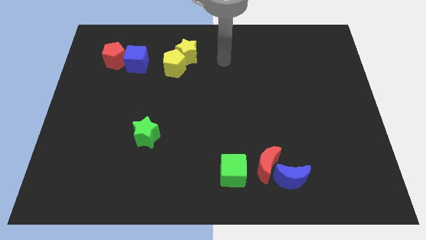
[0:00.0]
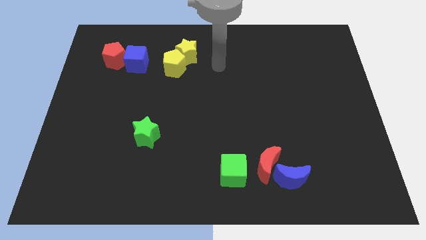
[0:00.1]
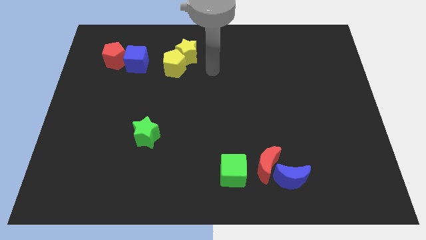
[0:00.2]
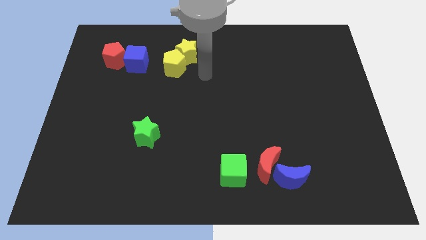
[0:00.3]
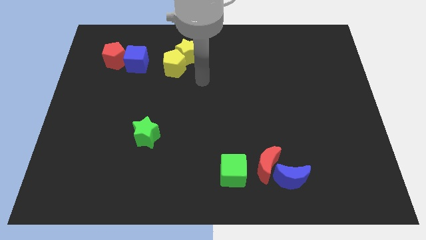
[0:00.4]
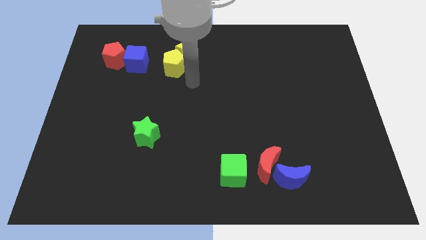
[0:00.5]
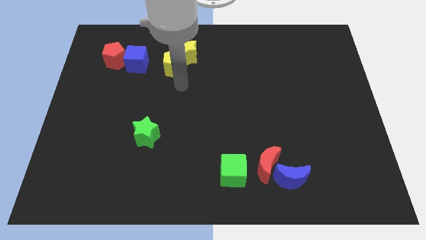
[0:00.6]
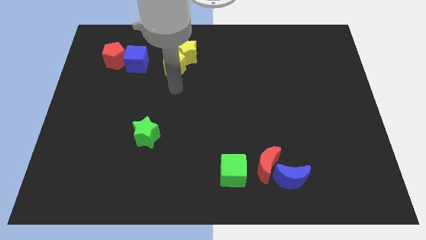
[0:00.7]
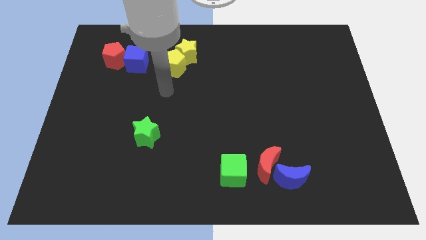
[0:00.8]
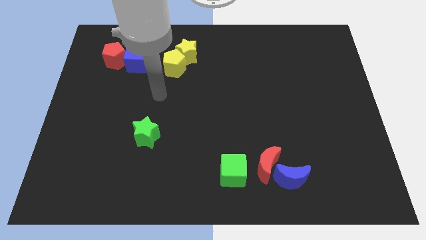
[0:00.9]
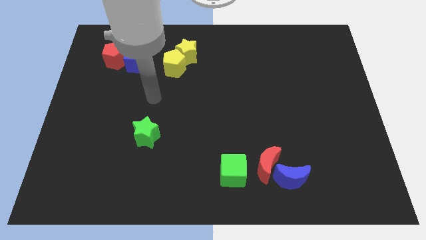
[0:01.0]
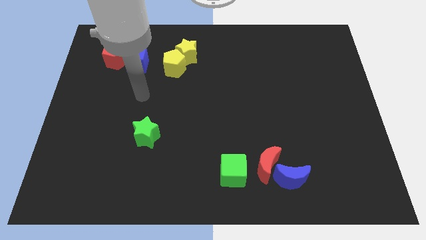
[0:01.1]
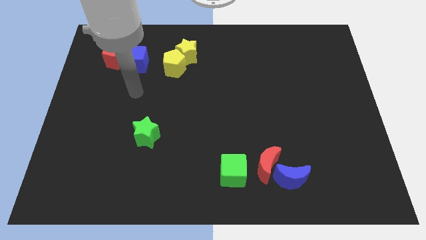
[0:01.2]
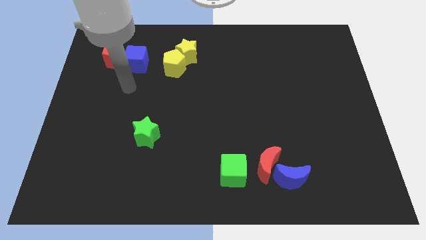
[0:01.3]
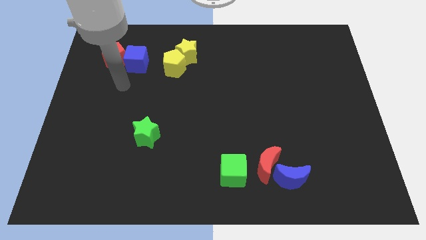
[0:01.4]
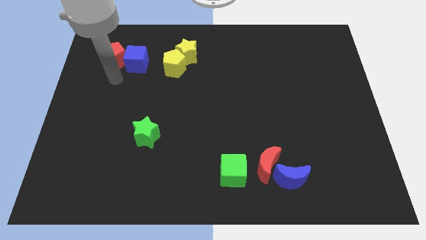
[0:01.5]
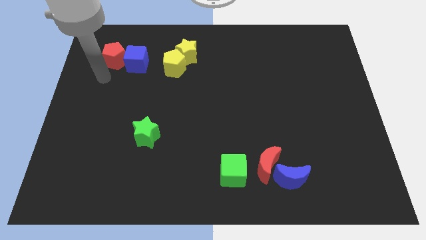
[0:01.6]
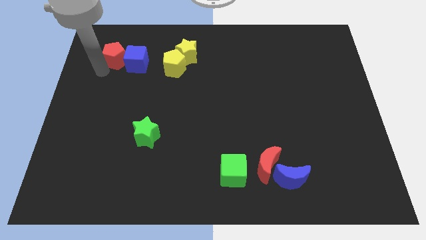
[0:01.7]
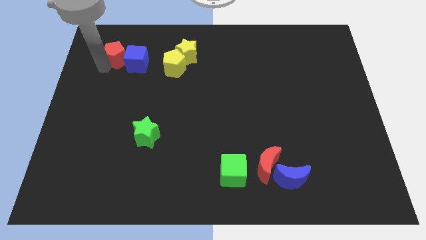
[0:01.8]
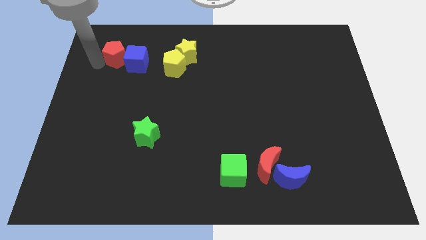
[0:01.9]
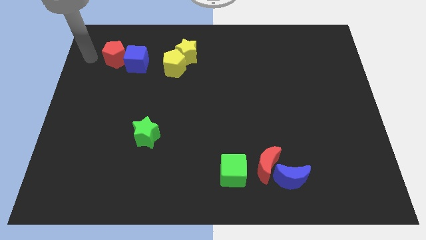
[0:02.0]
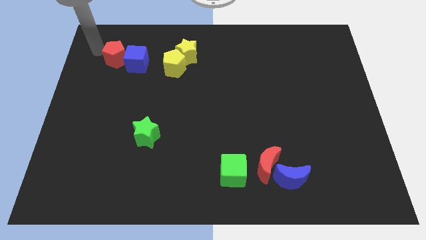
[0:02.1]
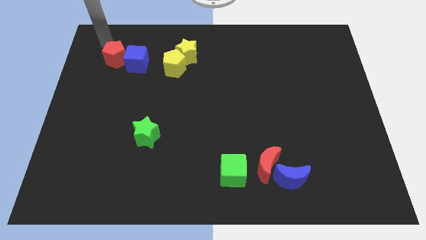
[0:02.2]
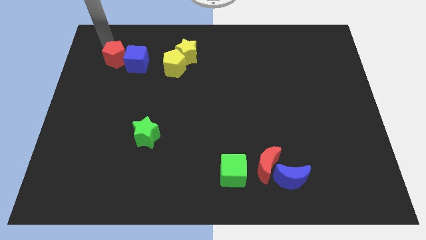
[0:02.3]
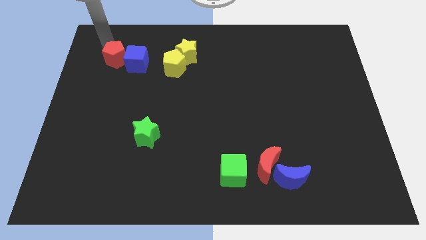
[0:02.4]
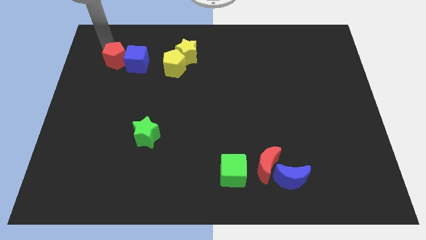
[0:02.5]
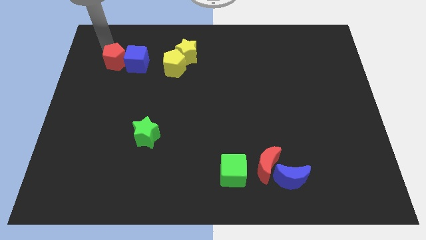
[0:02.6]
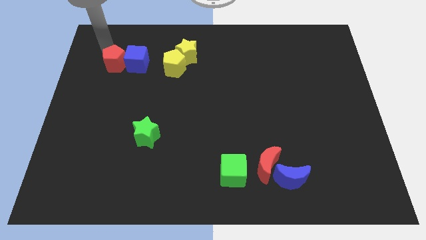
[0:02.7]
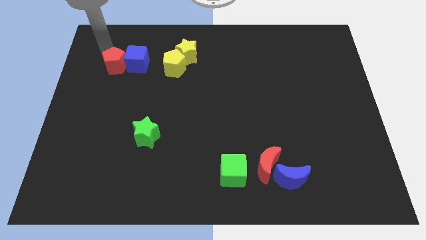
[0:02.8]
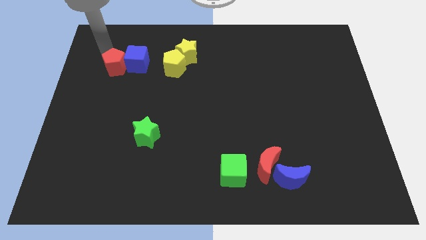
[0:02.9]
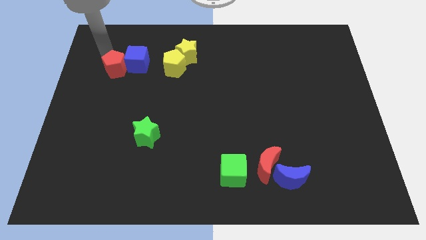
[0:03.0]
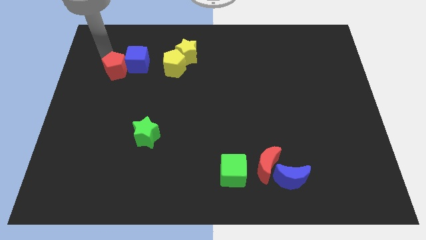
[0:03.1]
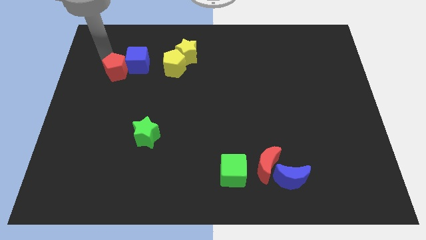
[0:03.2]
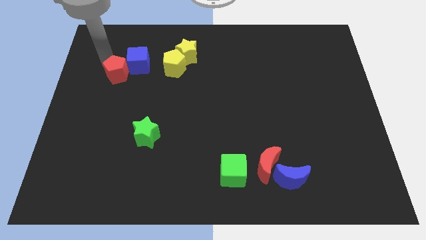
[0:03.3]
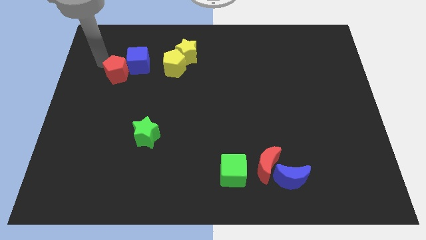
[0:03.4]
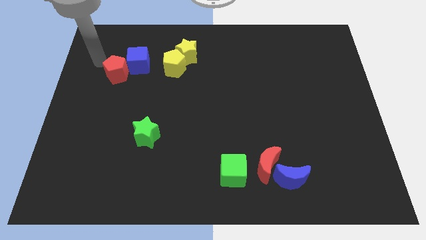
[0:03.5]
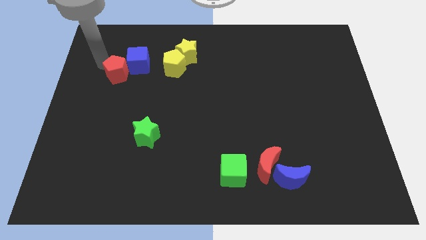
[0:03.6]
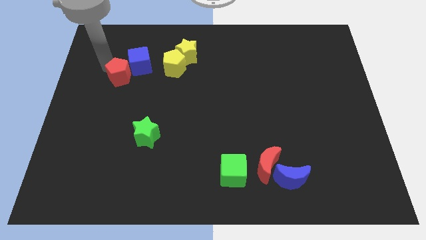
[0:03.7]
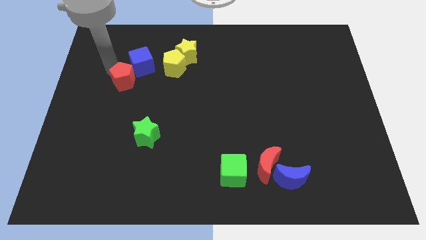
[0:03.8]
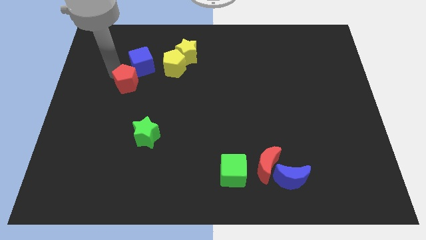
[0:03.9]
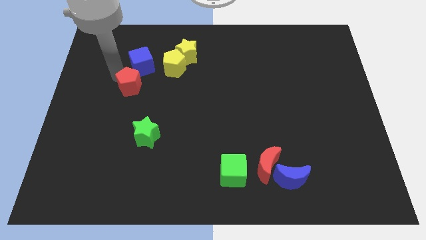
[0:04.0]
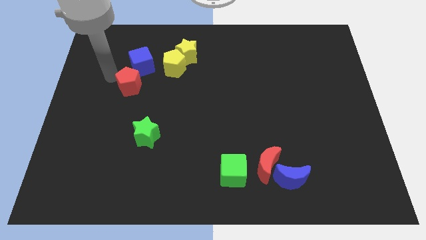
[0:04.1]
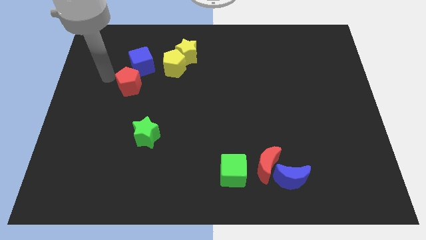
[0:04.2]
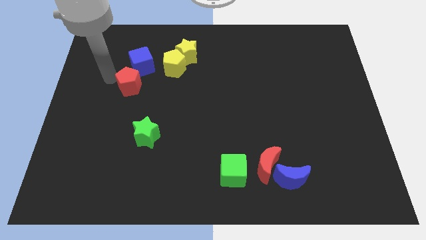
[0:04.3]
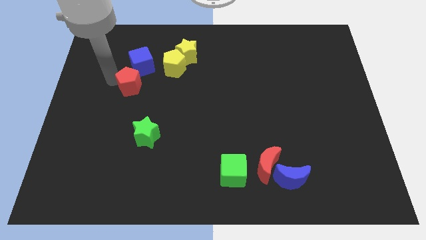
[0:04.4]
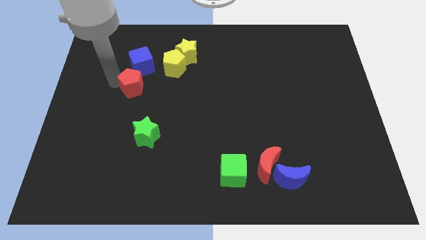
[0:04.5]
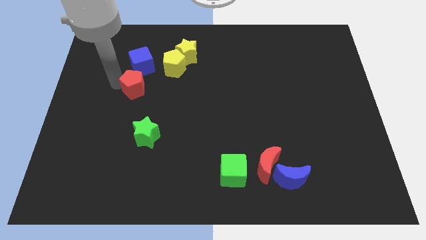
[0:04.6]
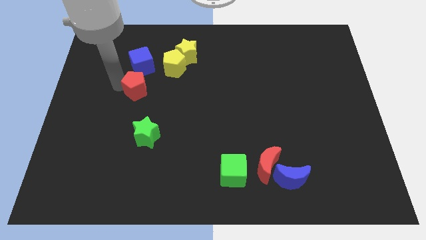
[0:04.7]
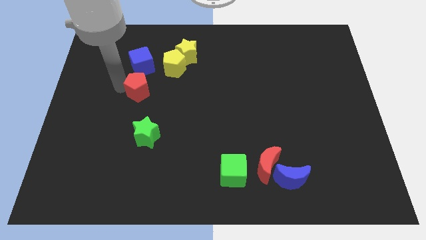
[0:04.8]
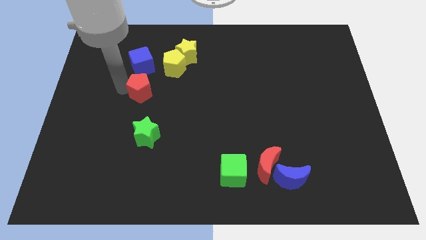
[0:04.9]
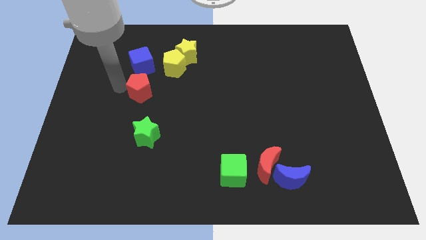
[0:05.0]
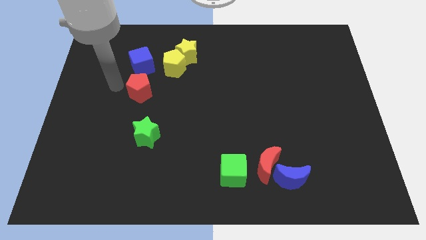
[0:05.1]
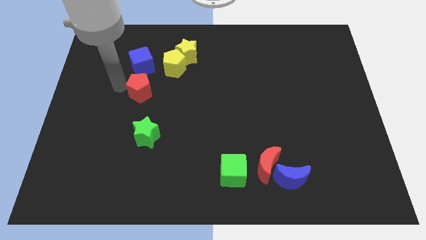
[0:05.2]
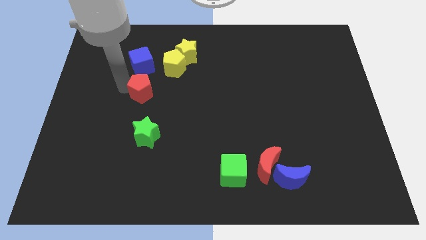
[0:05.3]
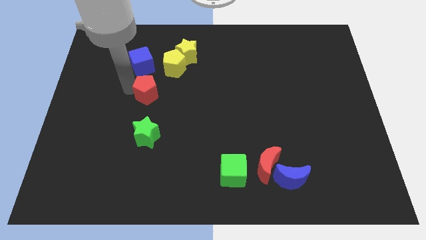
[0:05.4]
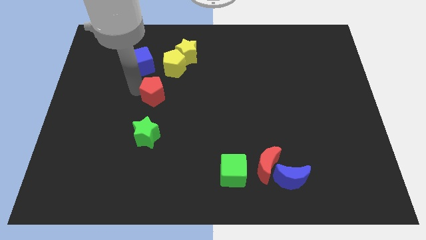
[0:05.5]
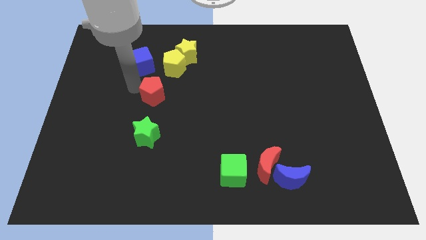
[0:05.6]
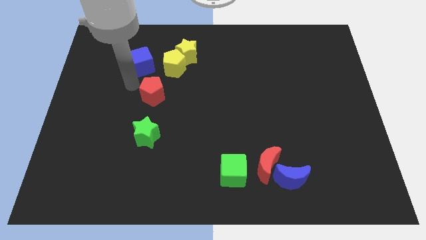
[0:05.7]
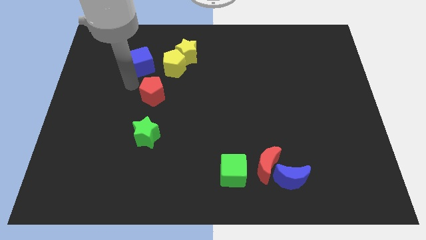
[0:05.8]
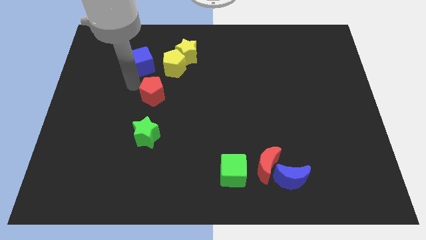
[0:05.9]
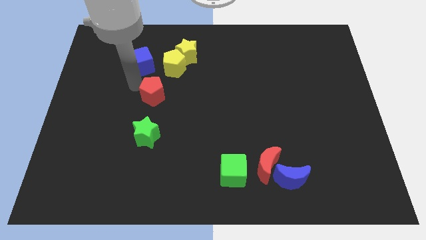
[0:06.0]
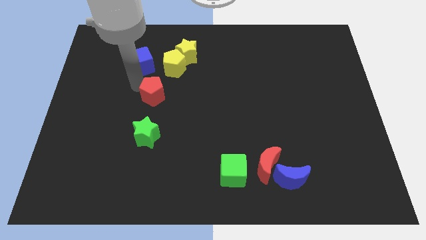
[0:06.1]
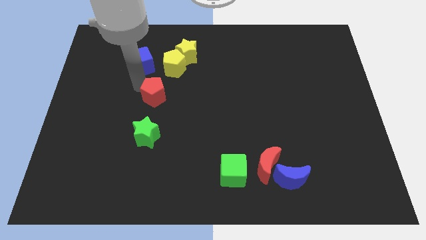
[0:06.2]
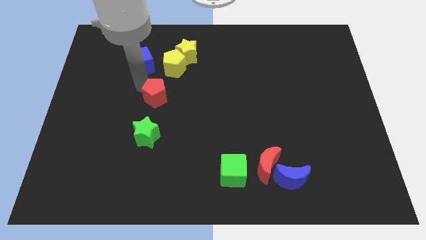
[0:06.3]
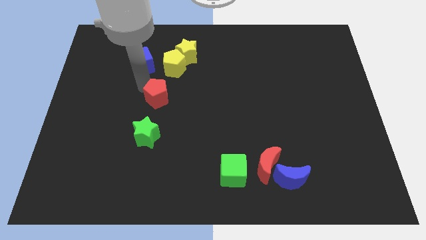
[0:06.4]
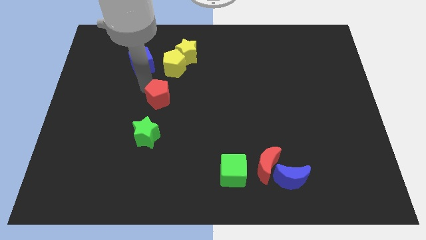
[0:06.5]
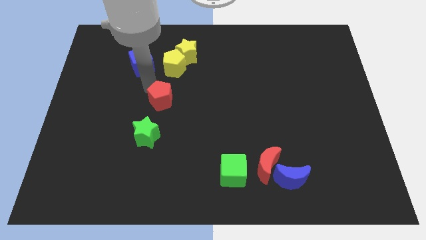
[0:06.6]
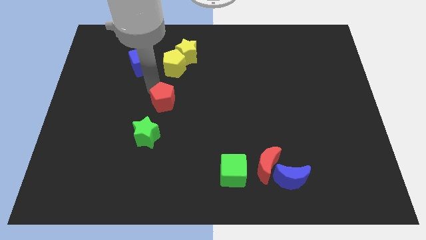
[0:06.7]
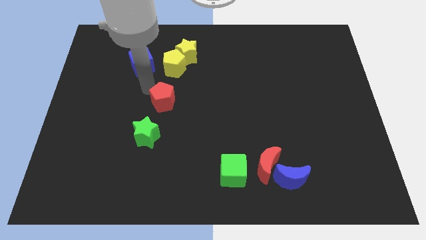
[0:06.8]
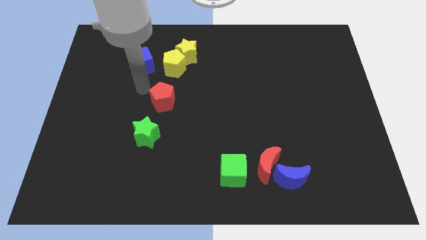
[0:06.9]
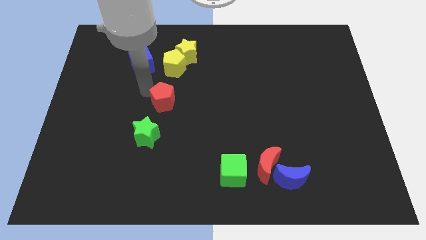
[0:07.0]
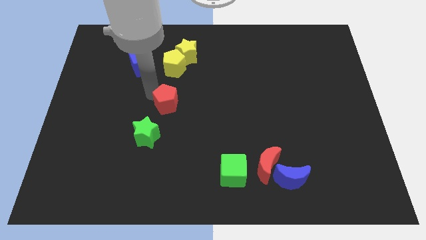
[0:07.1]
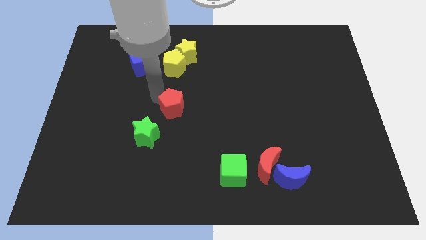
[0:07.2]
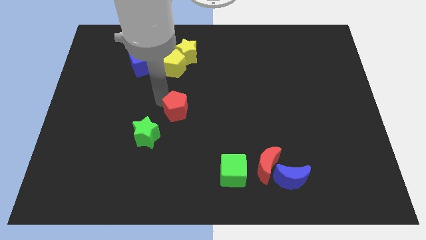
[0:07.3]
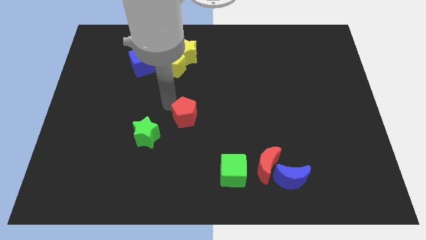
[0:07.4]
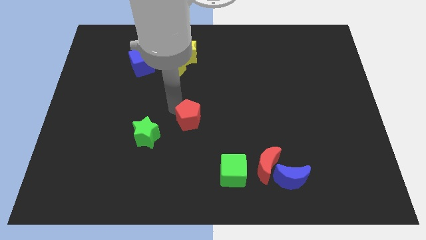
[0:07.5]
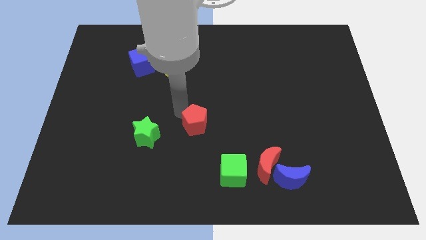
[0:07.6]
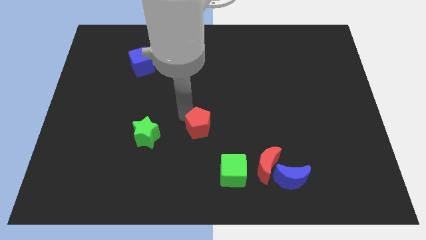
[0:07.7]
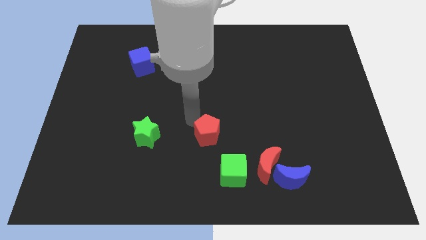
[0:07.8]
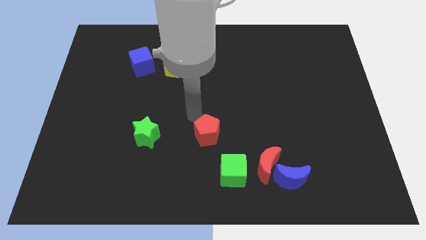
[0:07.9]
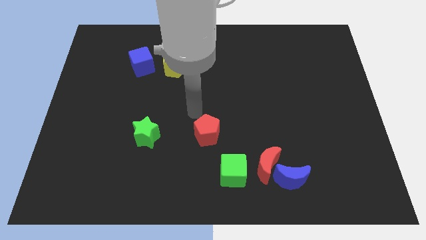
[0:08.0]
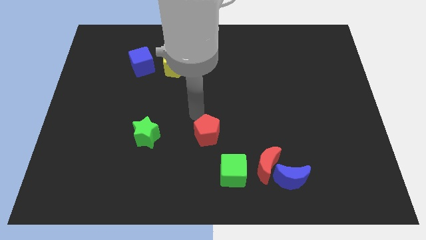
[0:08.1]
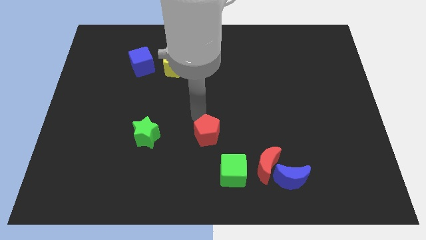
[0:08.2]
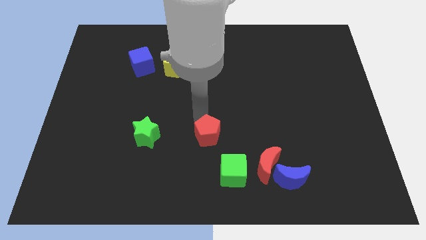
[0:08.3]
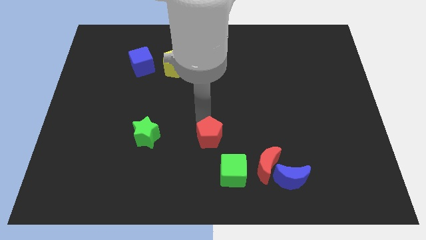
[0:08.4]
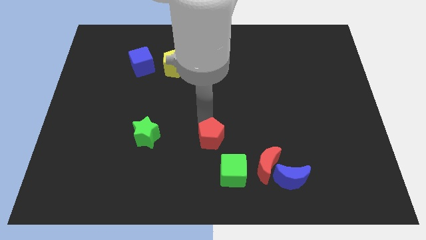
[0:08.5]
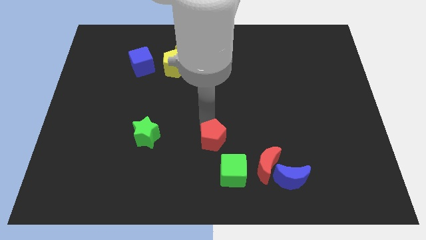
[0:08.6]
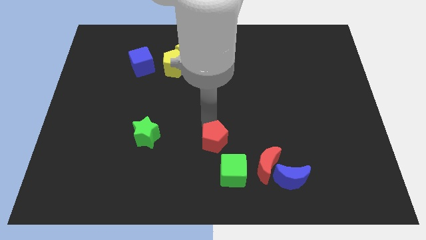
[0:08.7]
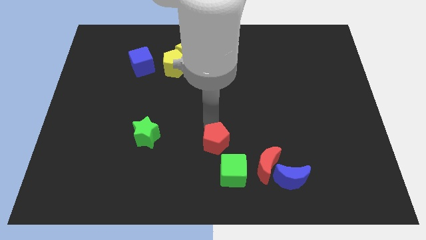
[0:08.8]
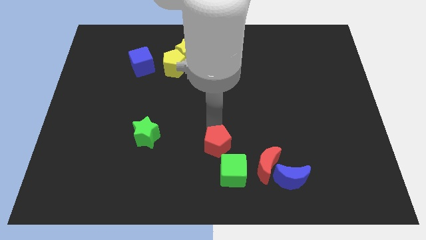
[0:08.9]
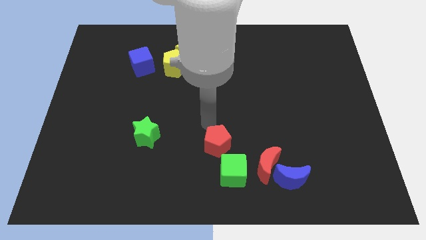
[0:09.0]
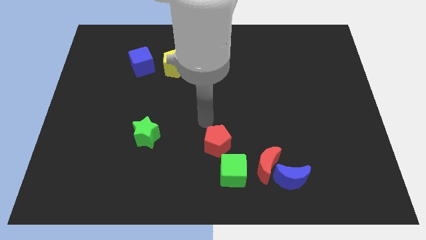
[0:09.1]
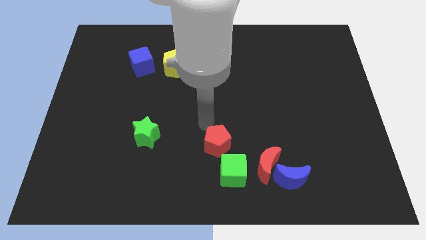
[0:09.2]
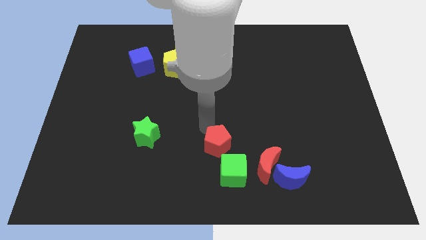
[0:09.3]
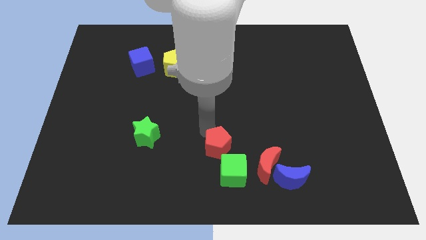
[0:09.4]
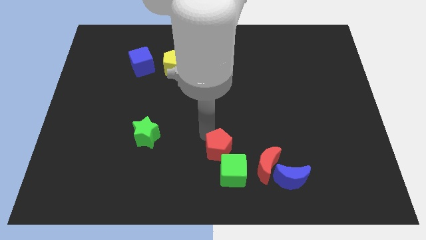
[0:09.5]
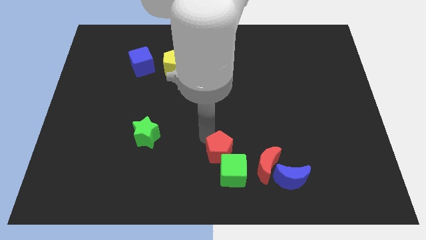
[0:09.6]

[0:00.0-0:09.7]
push the red pentagon next to the green cube
